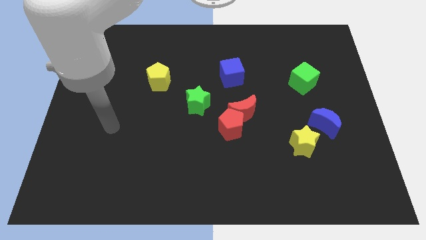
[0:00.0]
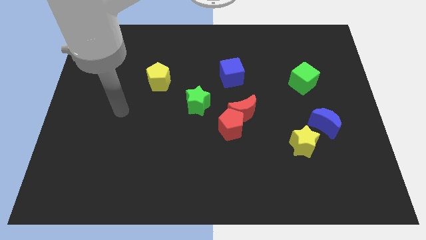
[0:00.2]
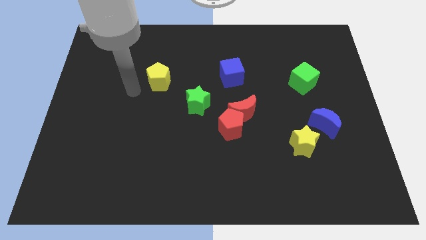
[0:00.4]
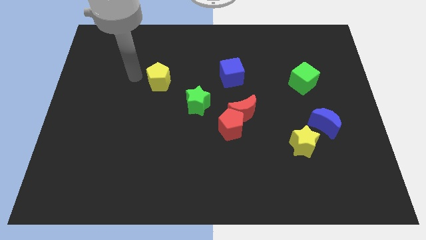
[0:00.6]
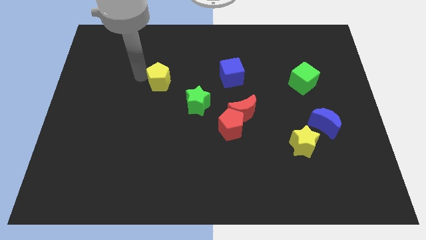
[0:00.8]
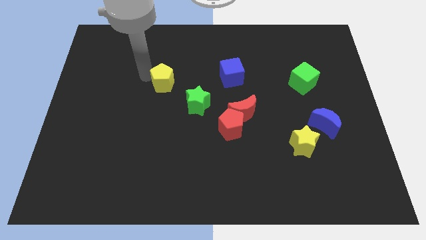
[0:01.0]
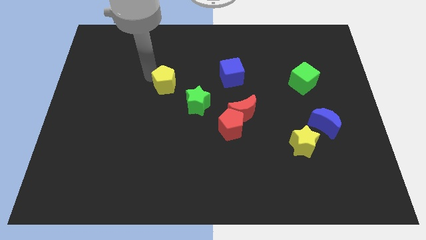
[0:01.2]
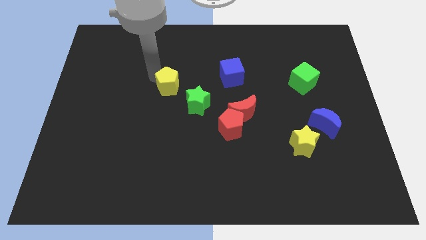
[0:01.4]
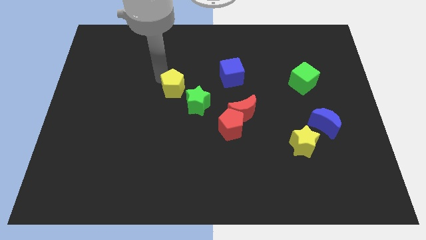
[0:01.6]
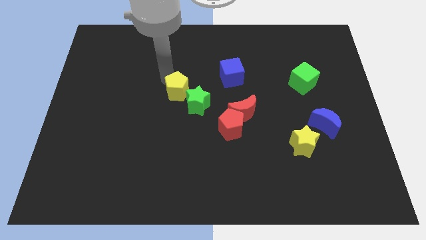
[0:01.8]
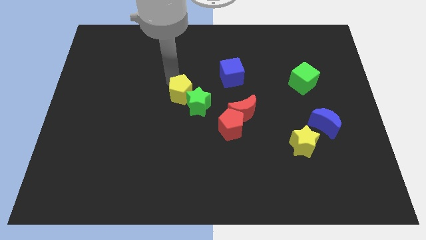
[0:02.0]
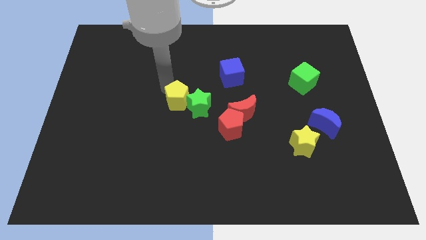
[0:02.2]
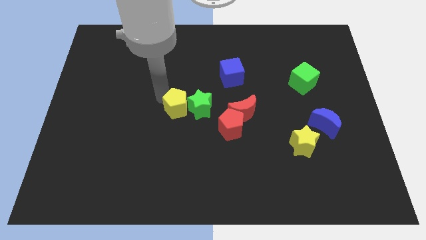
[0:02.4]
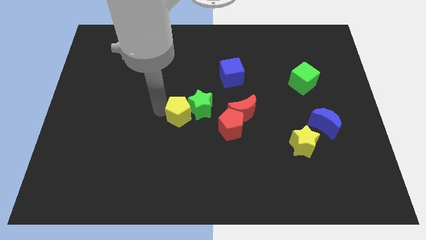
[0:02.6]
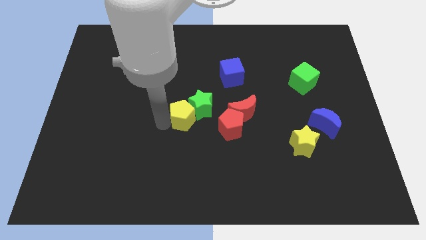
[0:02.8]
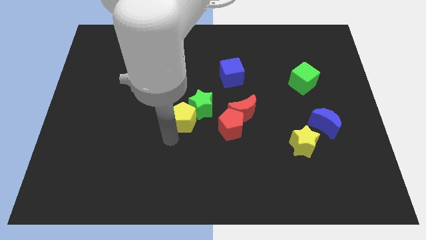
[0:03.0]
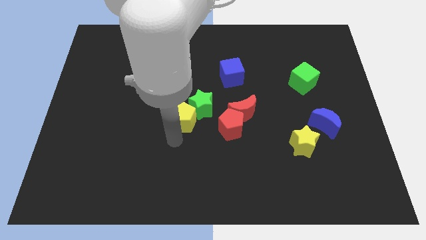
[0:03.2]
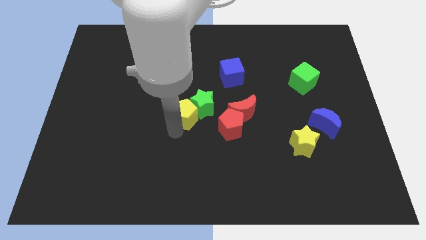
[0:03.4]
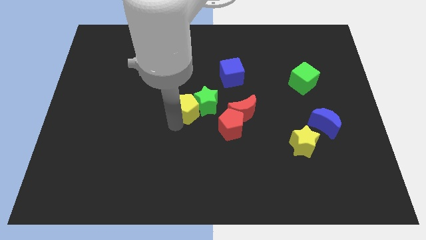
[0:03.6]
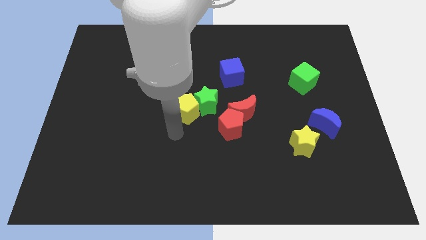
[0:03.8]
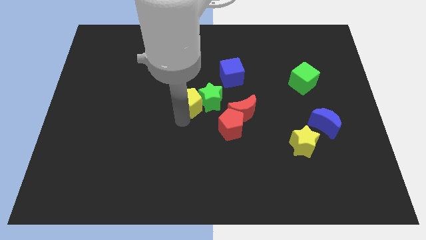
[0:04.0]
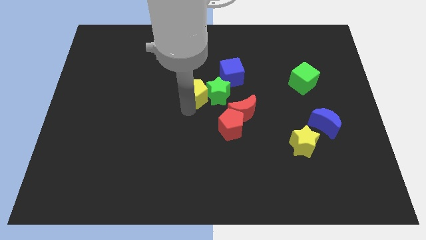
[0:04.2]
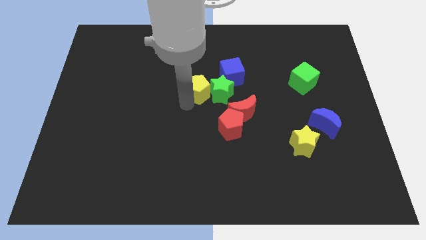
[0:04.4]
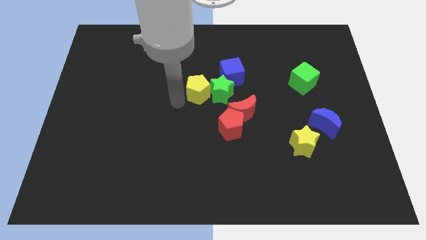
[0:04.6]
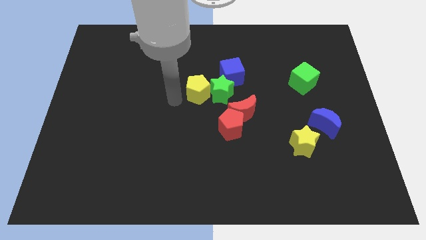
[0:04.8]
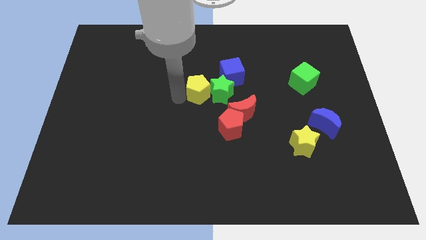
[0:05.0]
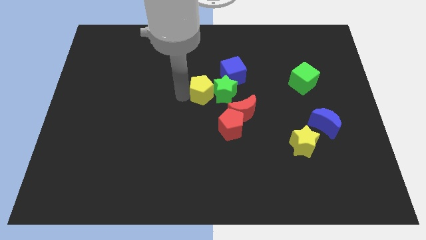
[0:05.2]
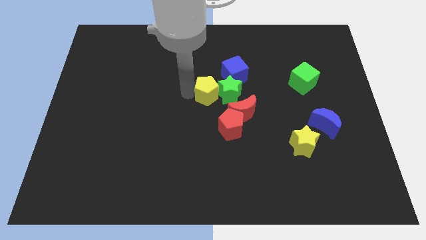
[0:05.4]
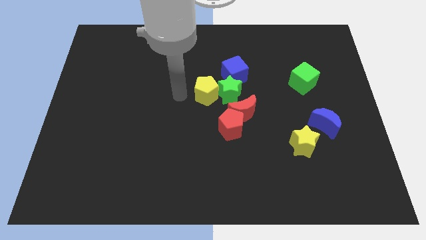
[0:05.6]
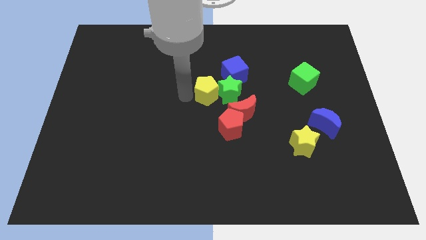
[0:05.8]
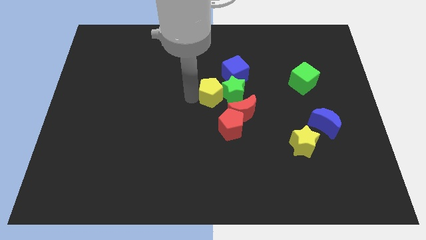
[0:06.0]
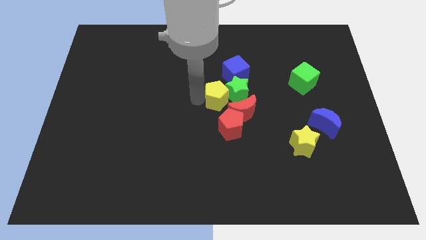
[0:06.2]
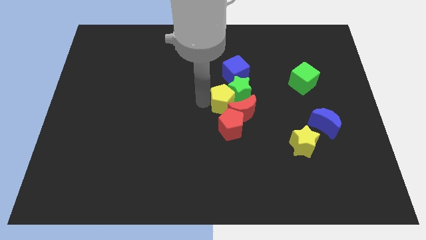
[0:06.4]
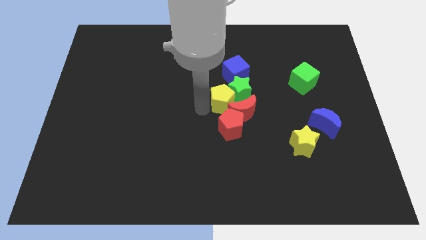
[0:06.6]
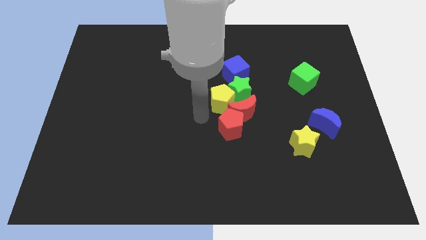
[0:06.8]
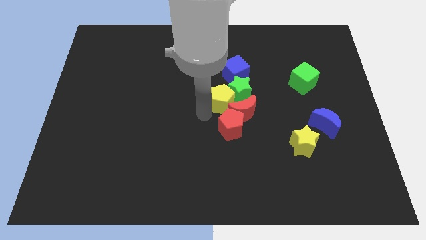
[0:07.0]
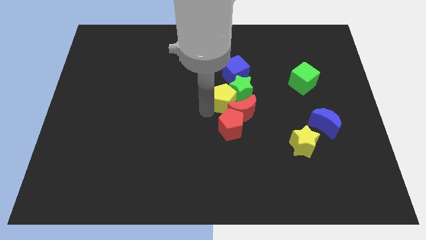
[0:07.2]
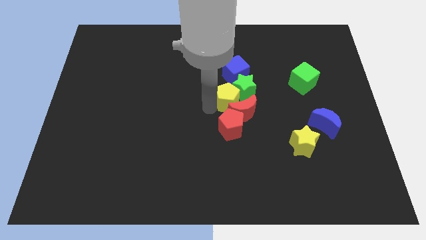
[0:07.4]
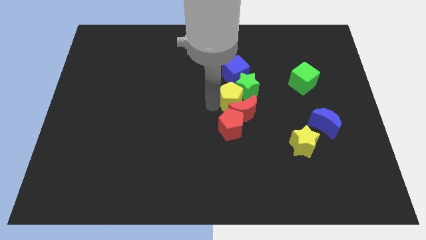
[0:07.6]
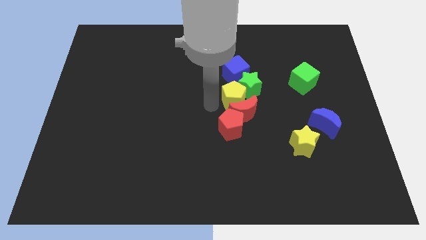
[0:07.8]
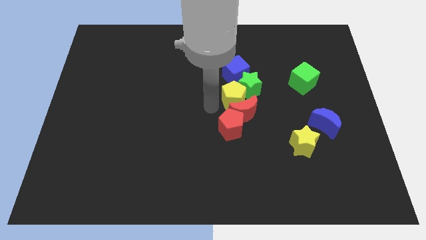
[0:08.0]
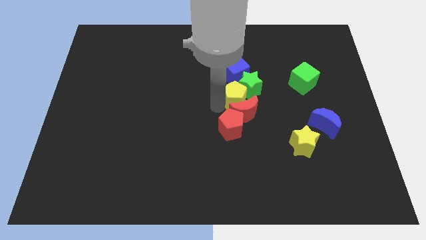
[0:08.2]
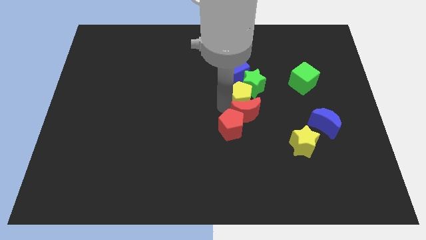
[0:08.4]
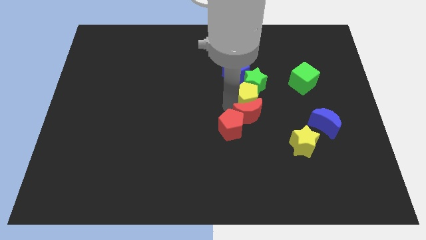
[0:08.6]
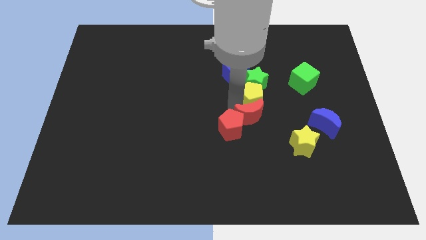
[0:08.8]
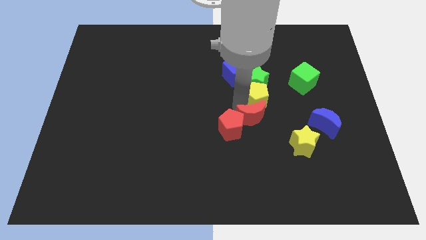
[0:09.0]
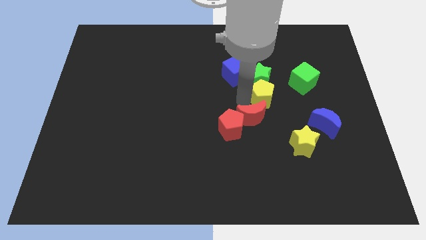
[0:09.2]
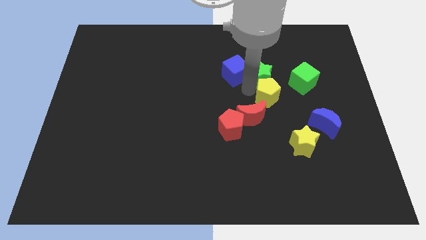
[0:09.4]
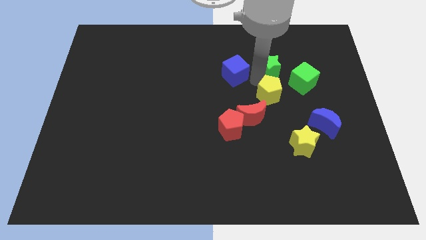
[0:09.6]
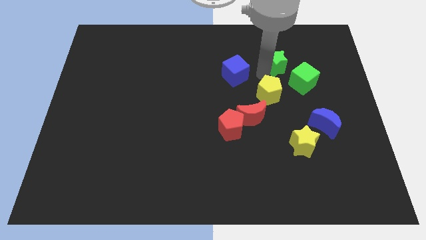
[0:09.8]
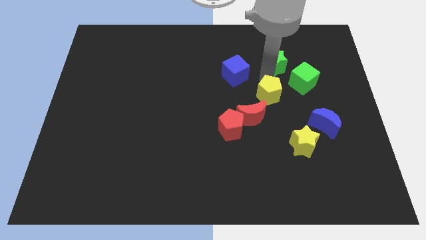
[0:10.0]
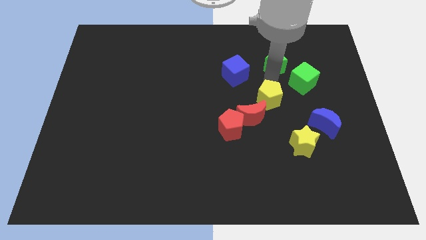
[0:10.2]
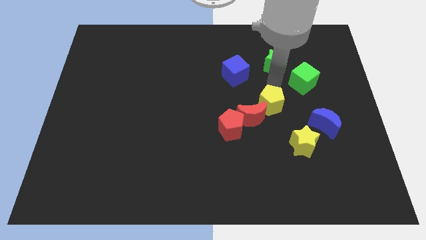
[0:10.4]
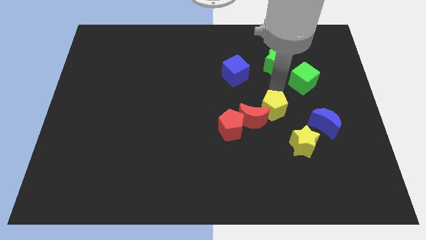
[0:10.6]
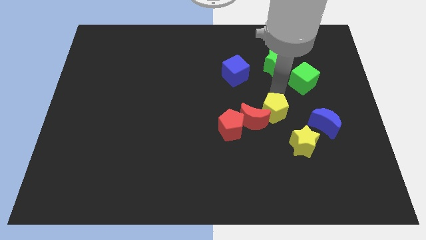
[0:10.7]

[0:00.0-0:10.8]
move the yellow pentagon to the right side of the red pentagon
